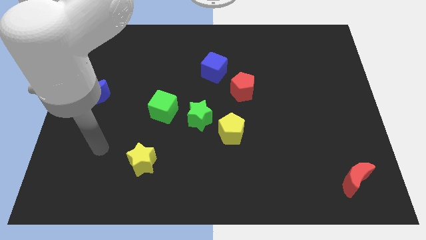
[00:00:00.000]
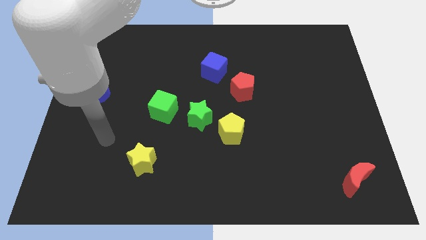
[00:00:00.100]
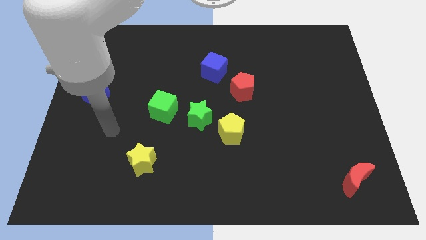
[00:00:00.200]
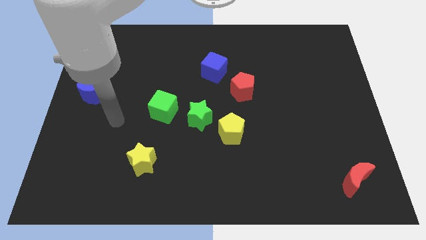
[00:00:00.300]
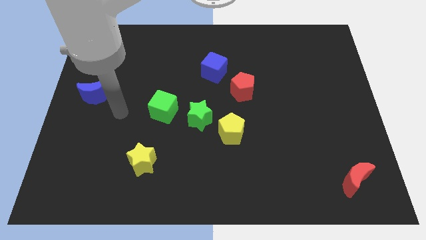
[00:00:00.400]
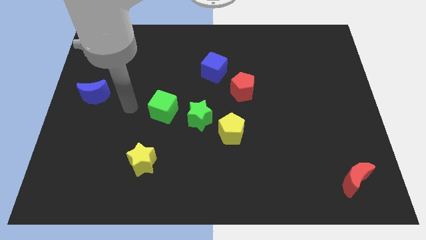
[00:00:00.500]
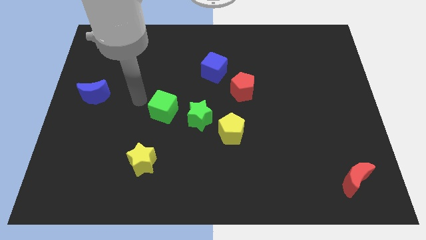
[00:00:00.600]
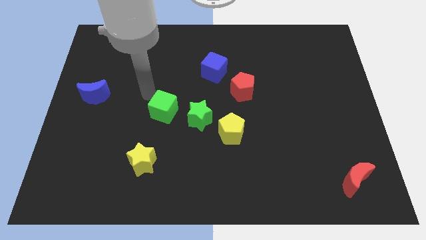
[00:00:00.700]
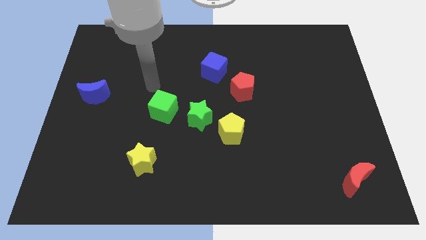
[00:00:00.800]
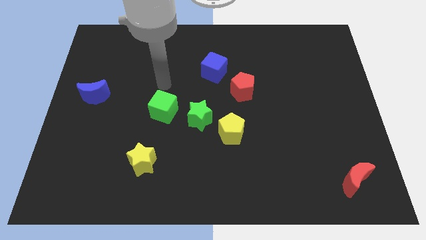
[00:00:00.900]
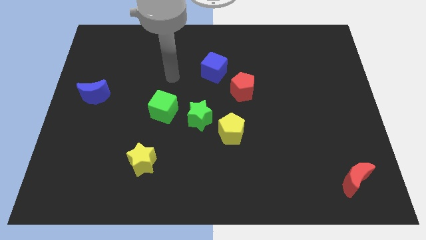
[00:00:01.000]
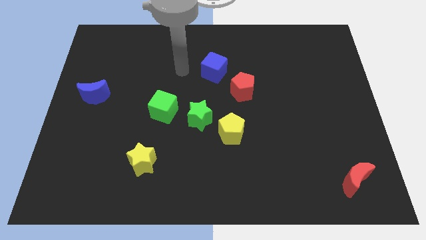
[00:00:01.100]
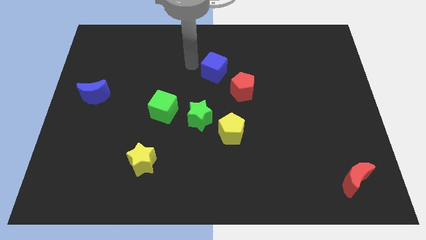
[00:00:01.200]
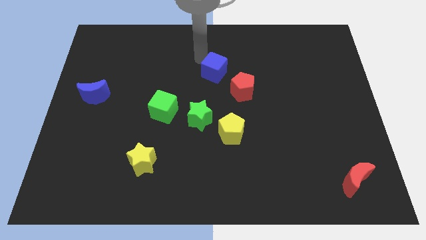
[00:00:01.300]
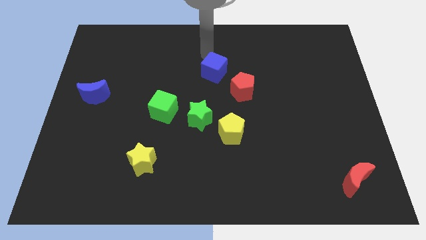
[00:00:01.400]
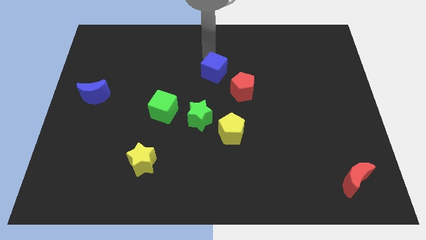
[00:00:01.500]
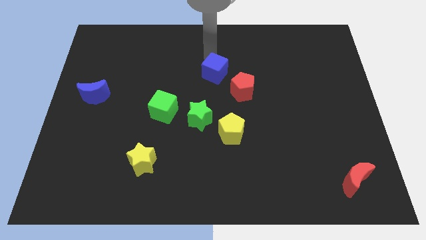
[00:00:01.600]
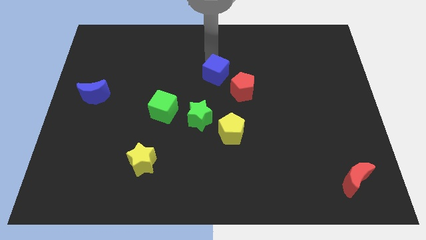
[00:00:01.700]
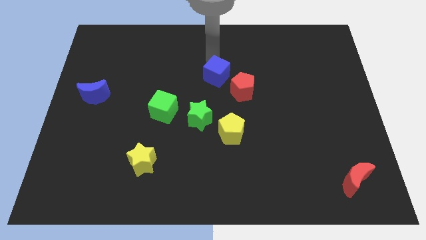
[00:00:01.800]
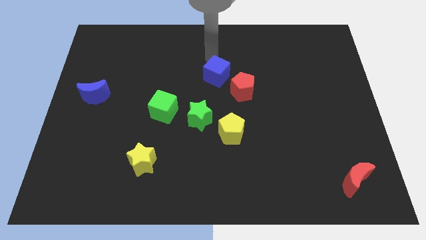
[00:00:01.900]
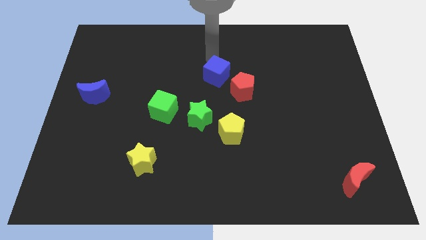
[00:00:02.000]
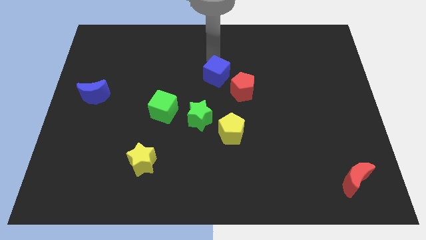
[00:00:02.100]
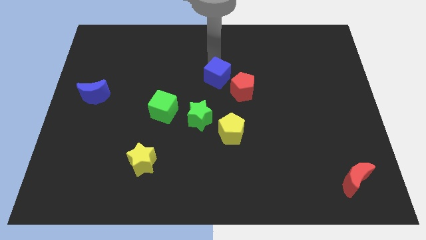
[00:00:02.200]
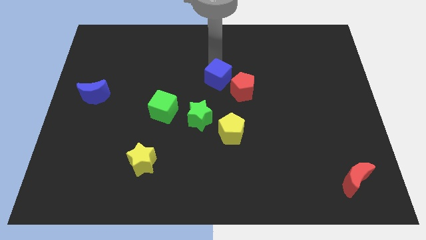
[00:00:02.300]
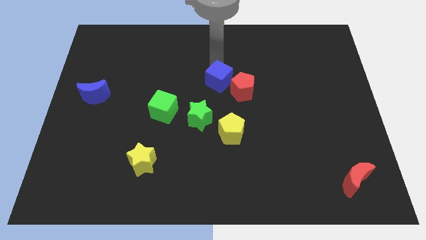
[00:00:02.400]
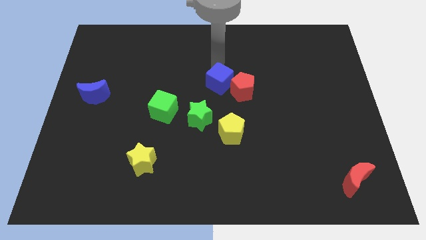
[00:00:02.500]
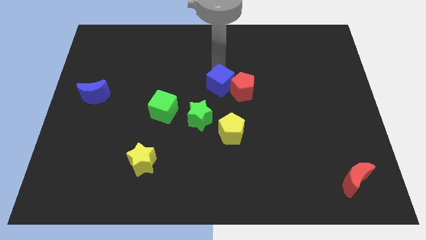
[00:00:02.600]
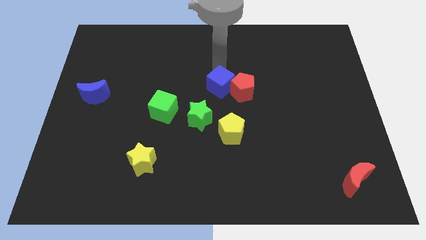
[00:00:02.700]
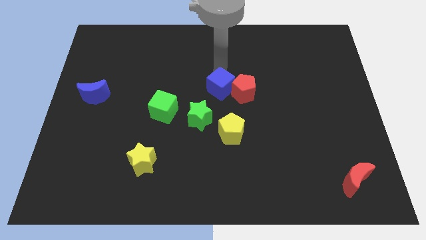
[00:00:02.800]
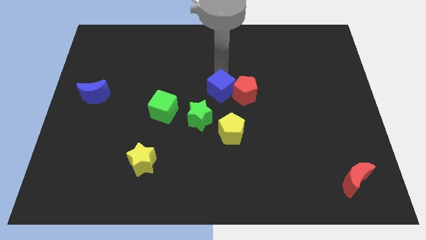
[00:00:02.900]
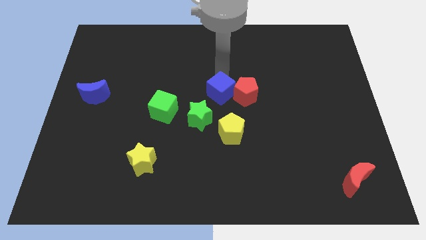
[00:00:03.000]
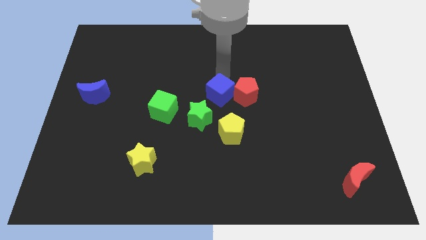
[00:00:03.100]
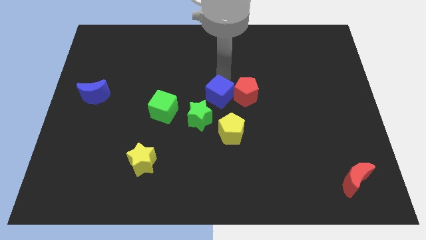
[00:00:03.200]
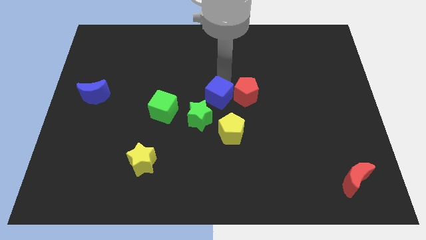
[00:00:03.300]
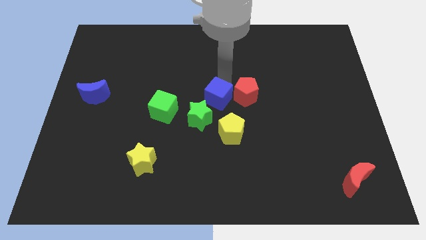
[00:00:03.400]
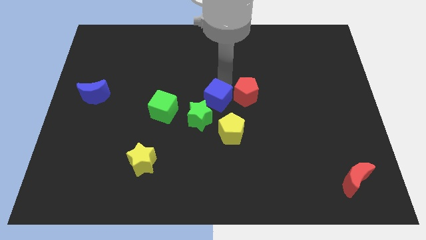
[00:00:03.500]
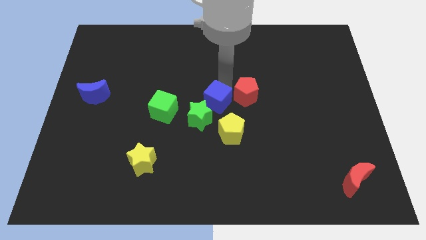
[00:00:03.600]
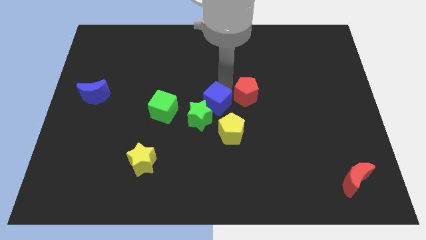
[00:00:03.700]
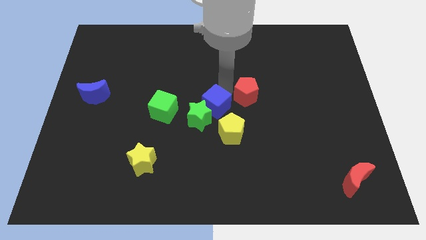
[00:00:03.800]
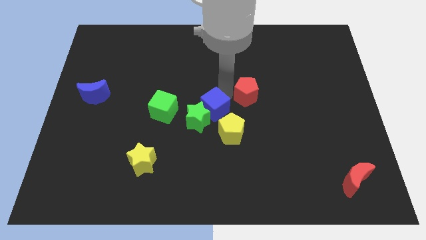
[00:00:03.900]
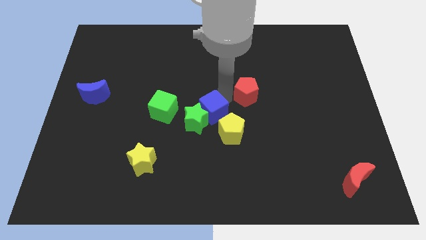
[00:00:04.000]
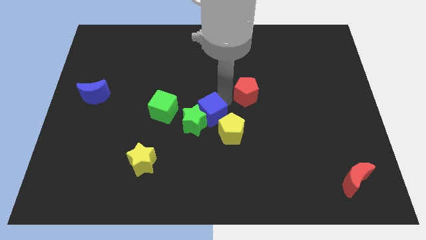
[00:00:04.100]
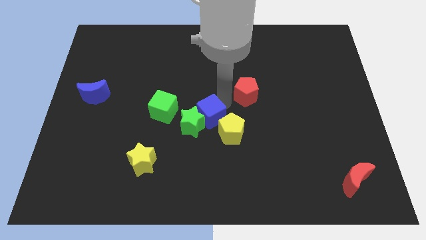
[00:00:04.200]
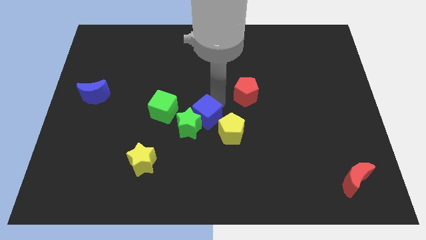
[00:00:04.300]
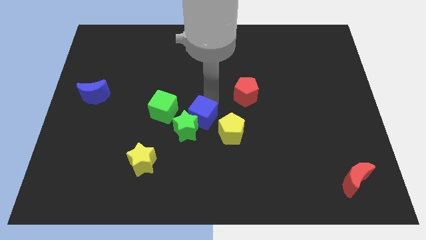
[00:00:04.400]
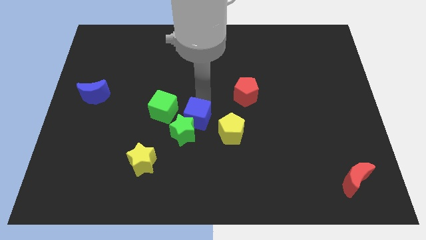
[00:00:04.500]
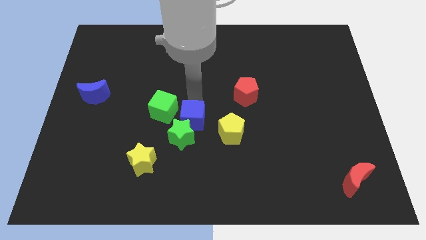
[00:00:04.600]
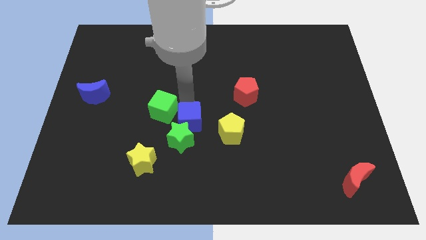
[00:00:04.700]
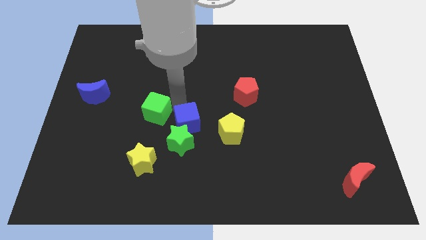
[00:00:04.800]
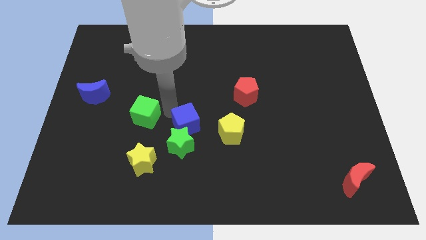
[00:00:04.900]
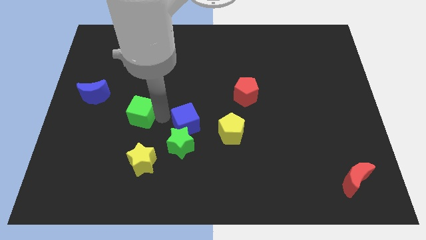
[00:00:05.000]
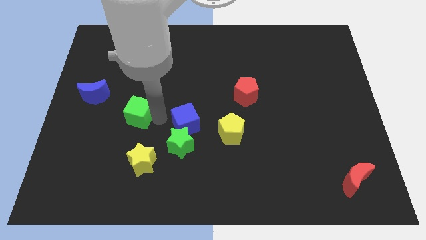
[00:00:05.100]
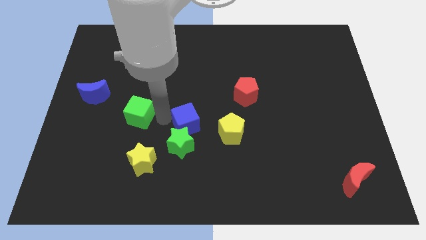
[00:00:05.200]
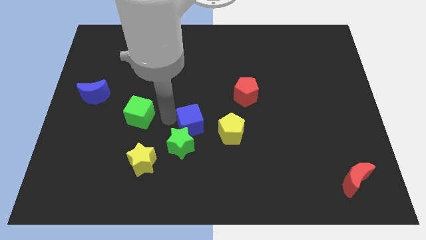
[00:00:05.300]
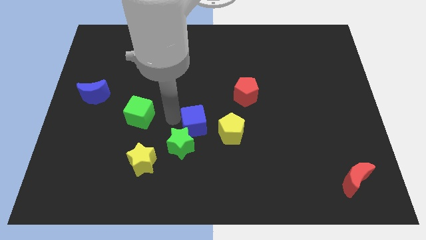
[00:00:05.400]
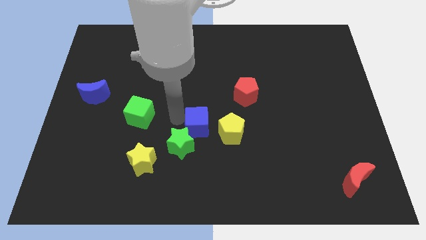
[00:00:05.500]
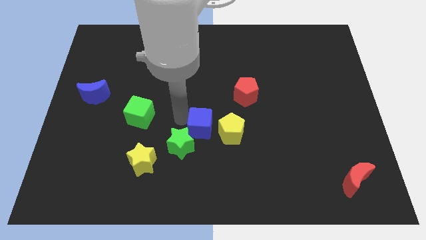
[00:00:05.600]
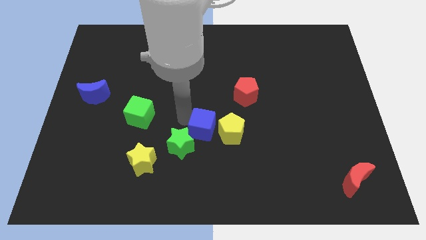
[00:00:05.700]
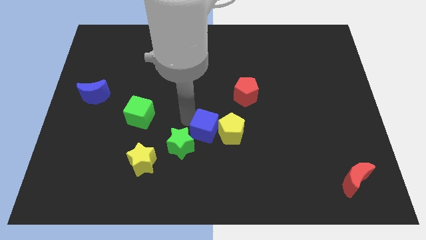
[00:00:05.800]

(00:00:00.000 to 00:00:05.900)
push the blue cube close to the yellow pentagon

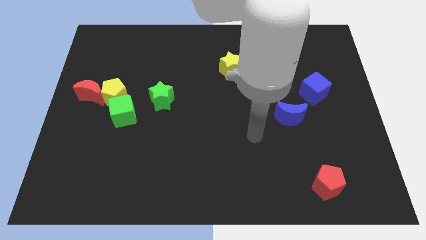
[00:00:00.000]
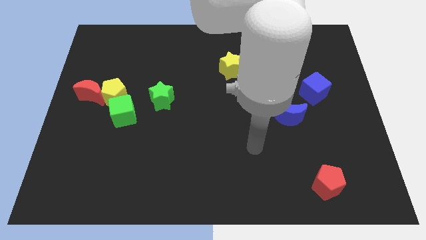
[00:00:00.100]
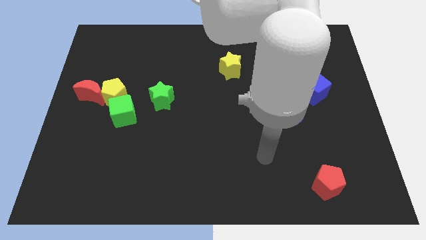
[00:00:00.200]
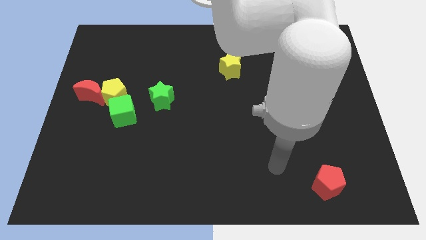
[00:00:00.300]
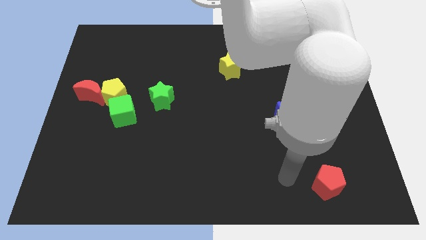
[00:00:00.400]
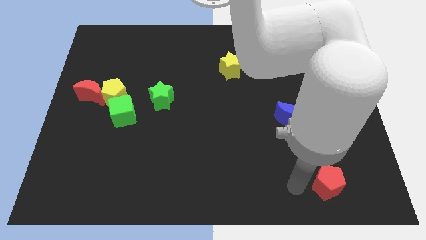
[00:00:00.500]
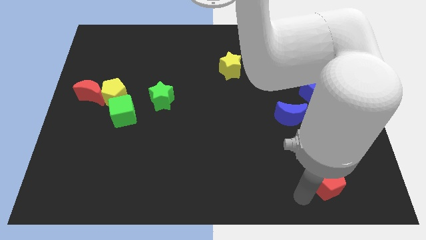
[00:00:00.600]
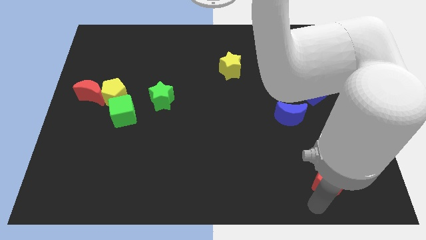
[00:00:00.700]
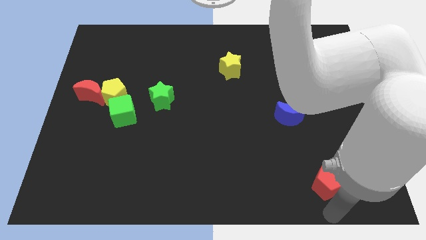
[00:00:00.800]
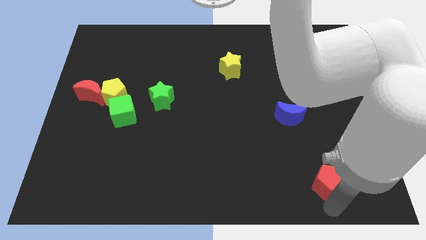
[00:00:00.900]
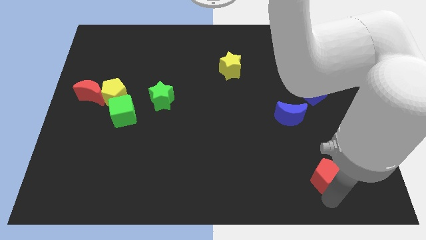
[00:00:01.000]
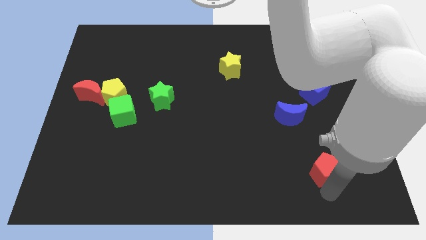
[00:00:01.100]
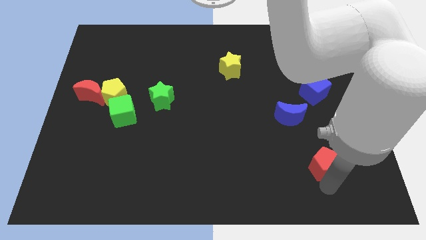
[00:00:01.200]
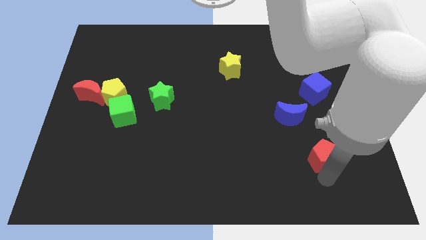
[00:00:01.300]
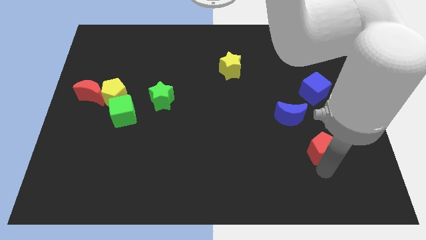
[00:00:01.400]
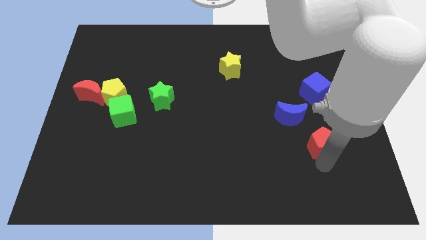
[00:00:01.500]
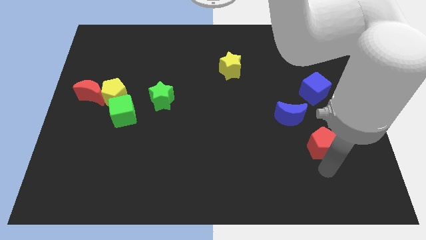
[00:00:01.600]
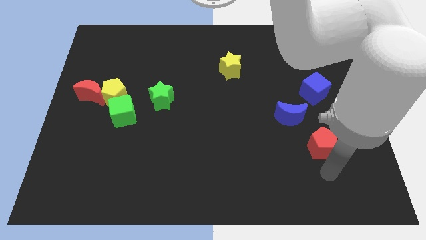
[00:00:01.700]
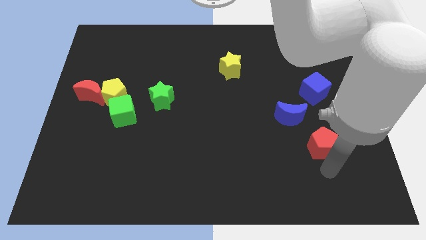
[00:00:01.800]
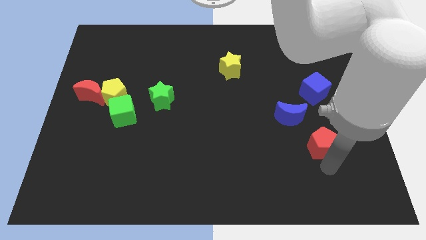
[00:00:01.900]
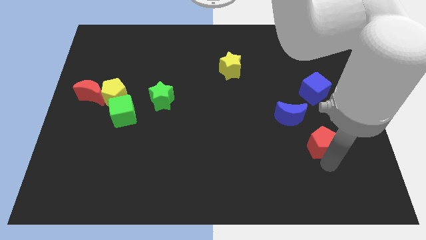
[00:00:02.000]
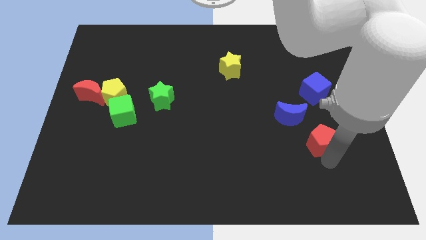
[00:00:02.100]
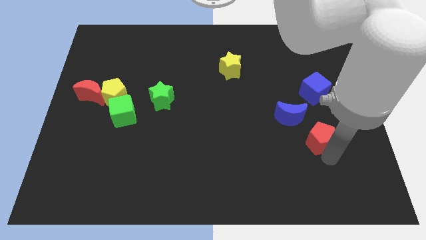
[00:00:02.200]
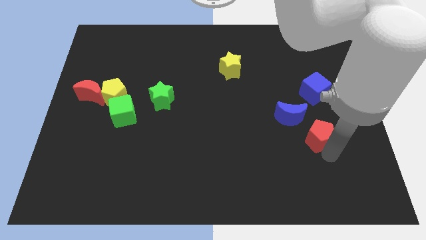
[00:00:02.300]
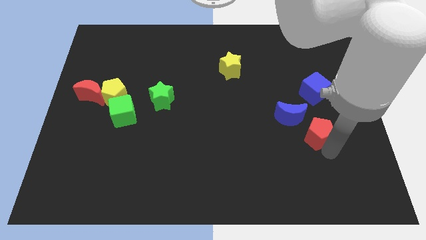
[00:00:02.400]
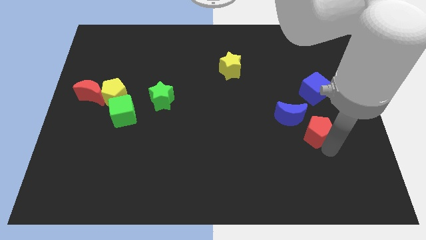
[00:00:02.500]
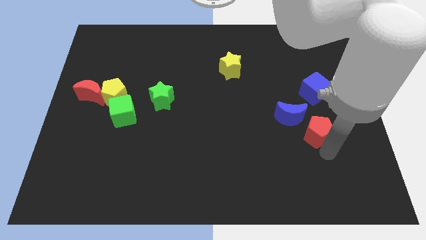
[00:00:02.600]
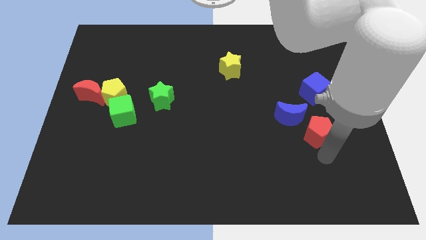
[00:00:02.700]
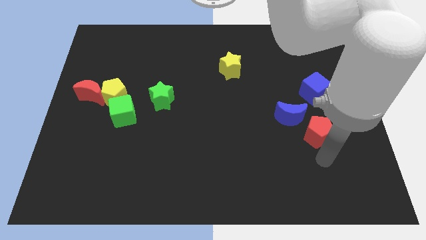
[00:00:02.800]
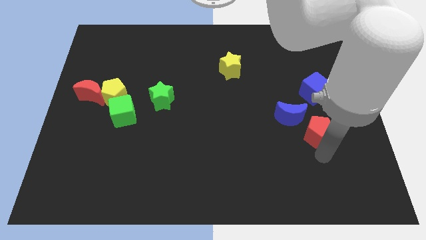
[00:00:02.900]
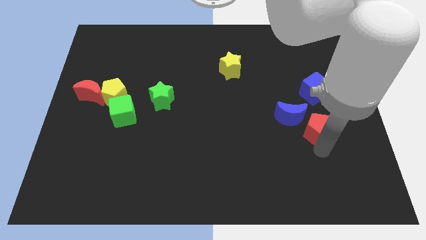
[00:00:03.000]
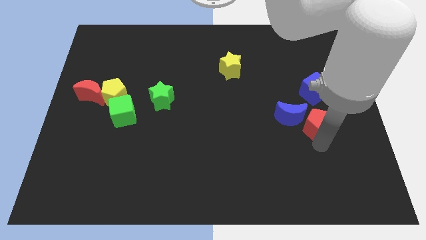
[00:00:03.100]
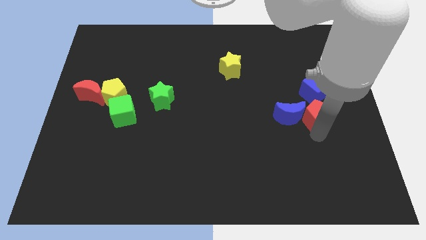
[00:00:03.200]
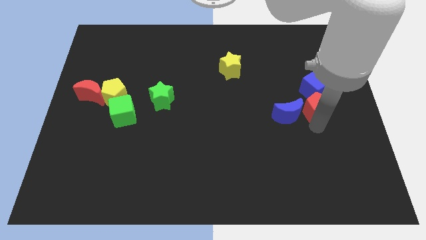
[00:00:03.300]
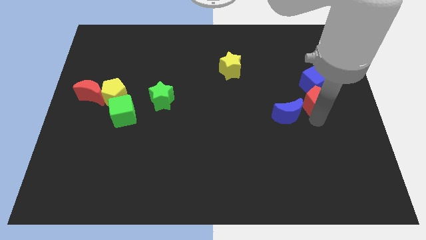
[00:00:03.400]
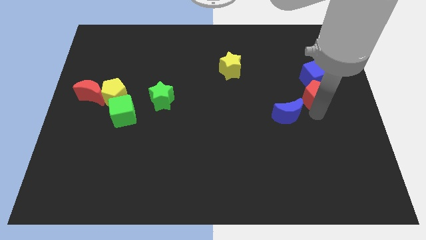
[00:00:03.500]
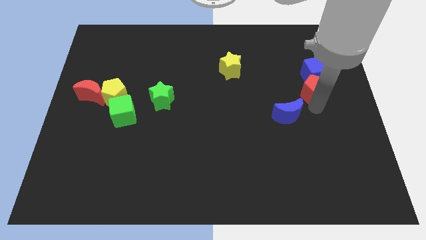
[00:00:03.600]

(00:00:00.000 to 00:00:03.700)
slide the red pentagon close to the blue cube
